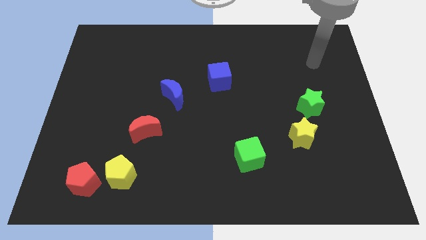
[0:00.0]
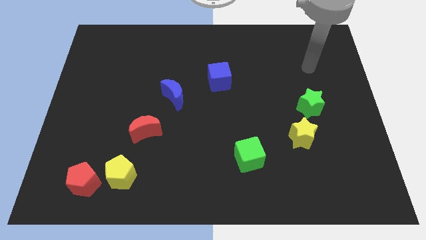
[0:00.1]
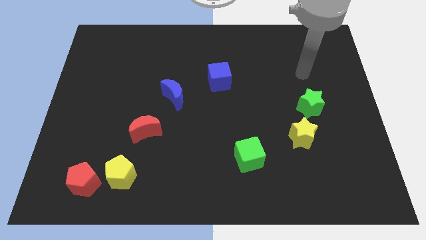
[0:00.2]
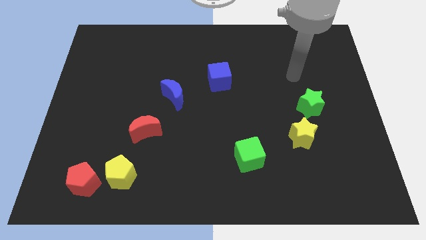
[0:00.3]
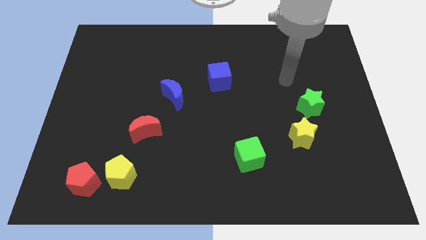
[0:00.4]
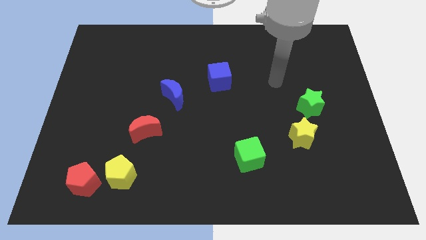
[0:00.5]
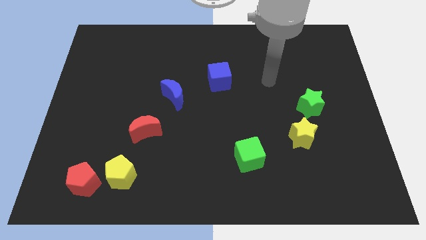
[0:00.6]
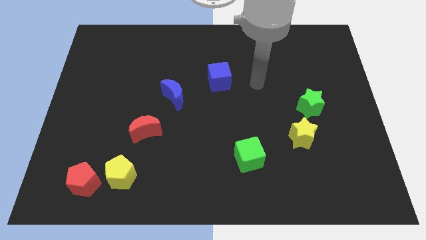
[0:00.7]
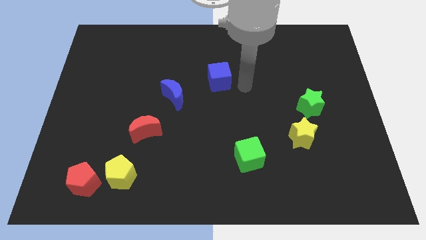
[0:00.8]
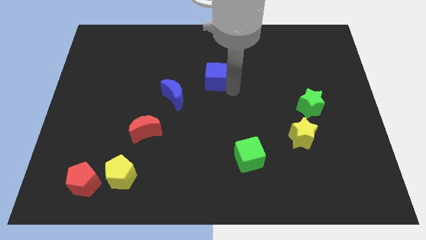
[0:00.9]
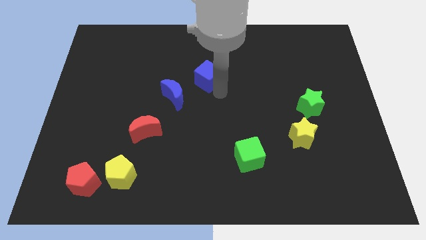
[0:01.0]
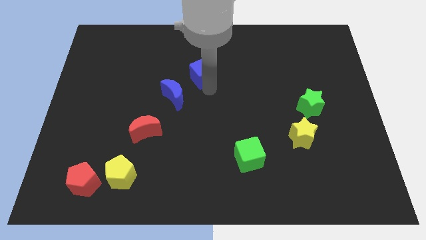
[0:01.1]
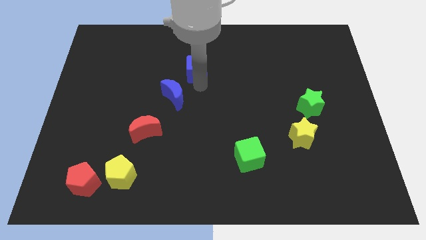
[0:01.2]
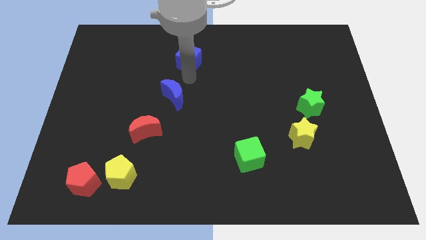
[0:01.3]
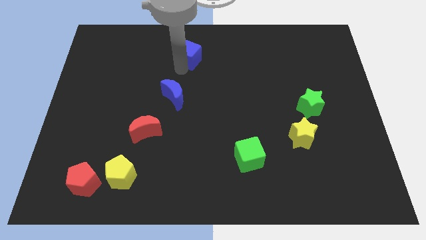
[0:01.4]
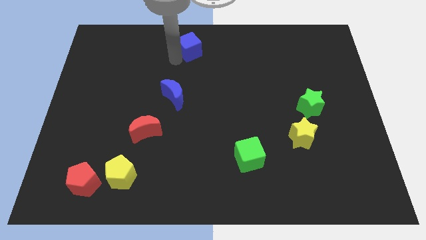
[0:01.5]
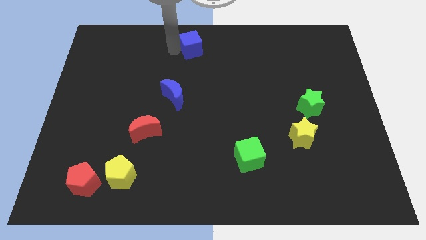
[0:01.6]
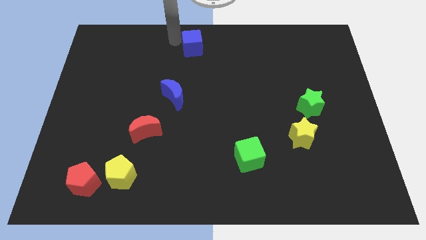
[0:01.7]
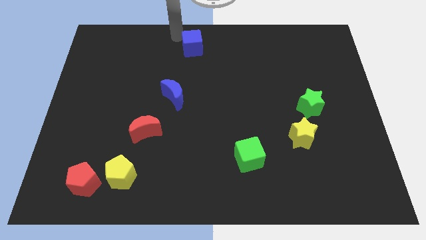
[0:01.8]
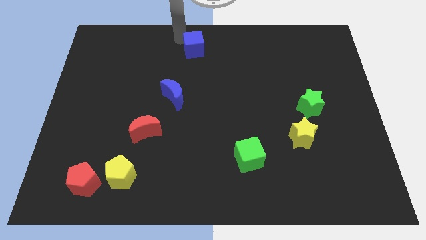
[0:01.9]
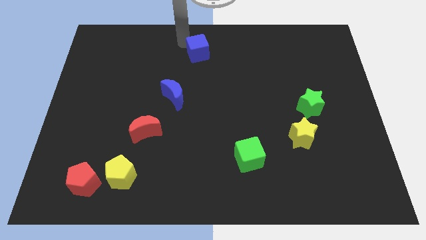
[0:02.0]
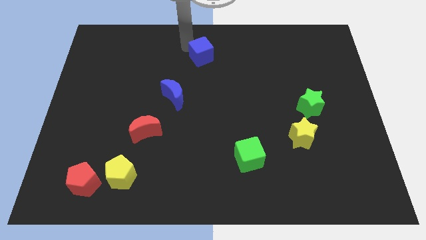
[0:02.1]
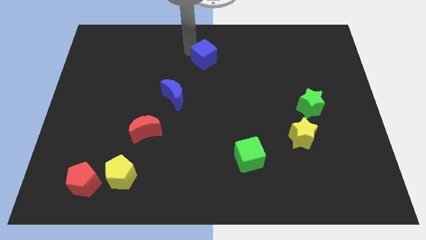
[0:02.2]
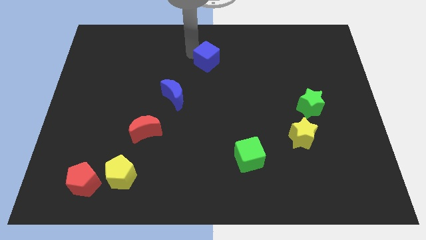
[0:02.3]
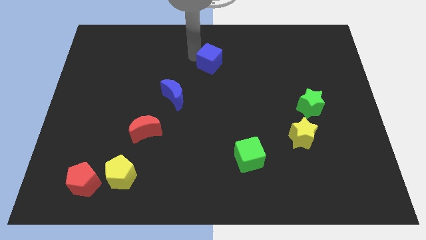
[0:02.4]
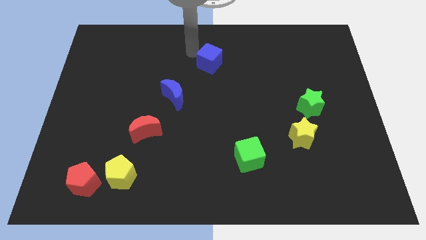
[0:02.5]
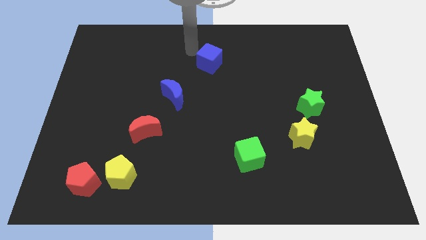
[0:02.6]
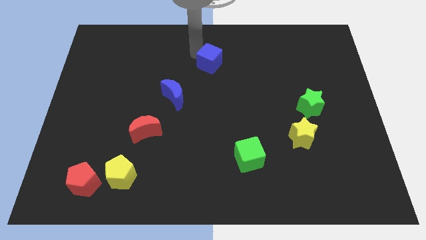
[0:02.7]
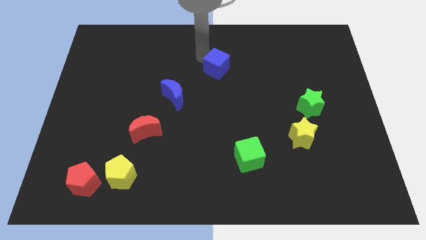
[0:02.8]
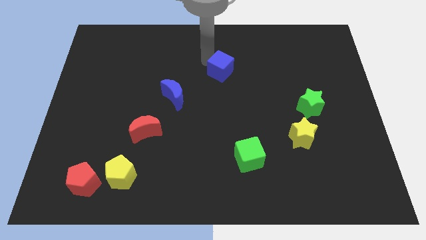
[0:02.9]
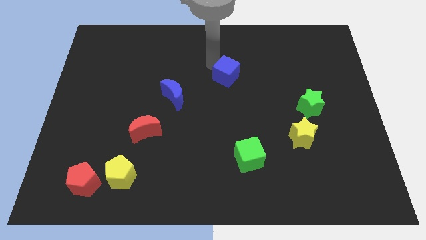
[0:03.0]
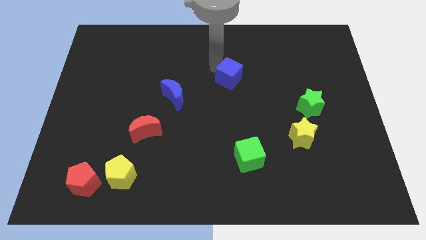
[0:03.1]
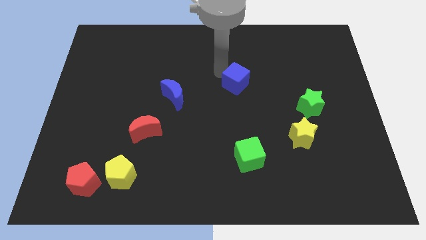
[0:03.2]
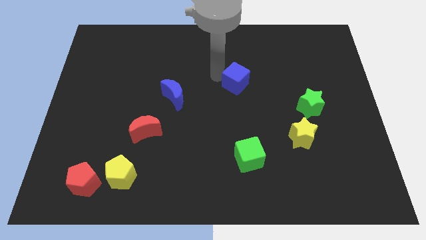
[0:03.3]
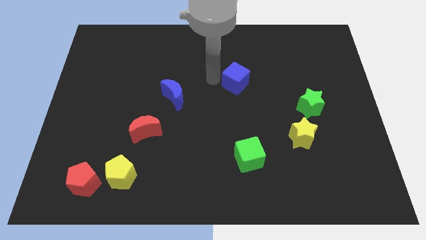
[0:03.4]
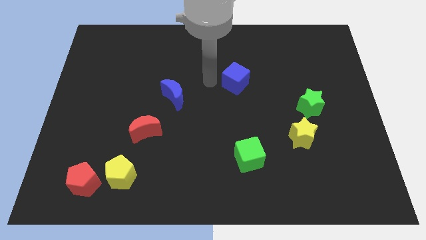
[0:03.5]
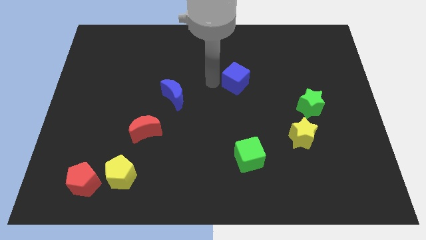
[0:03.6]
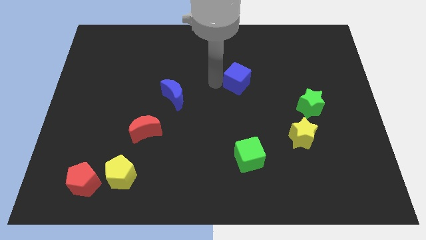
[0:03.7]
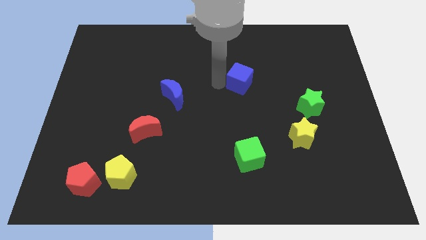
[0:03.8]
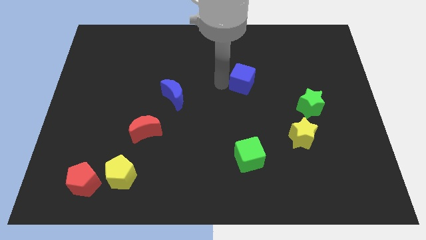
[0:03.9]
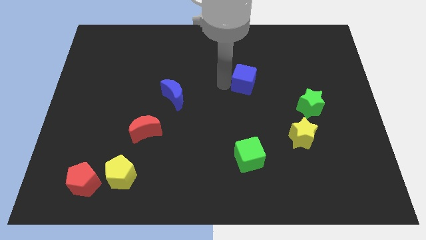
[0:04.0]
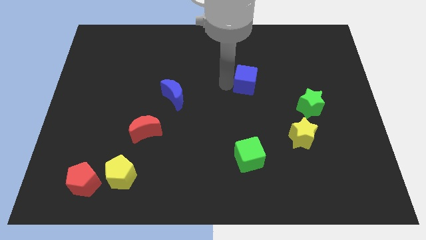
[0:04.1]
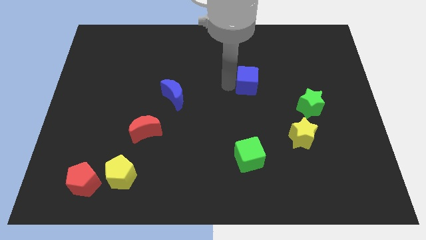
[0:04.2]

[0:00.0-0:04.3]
slightly push the blue cube right

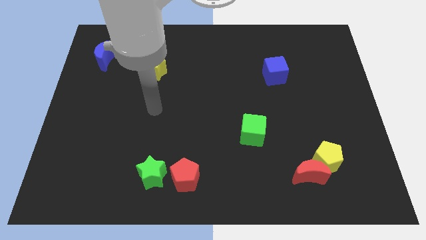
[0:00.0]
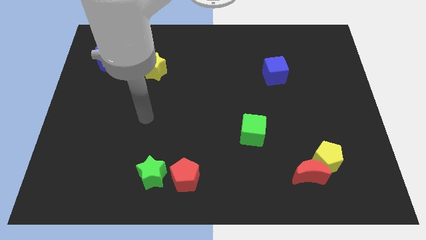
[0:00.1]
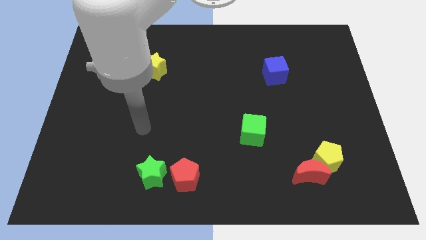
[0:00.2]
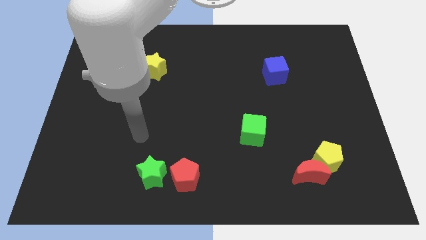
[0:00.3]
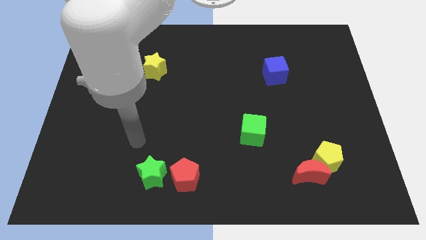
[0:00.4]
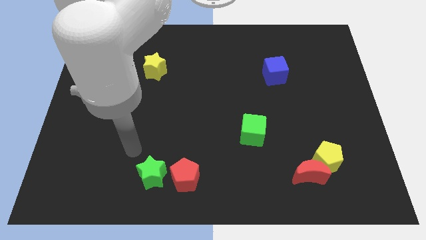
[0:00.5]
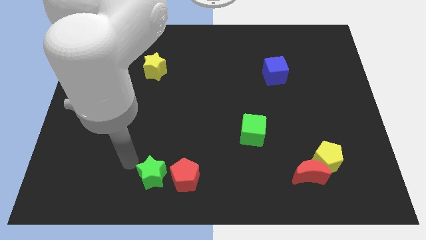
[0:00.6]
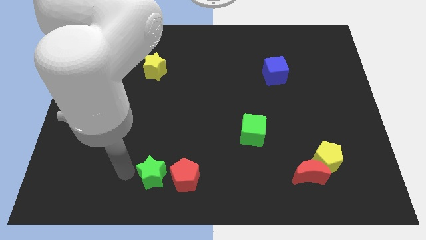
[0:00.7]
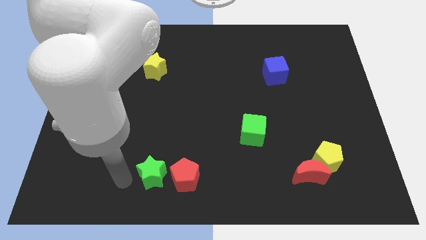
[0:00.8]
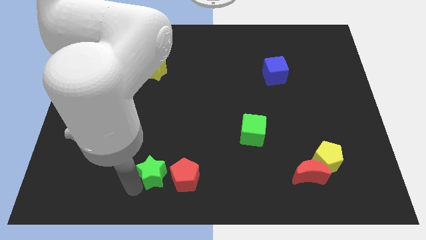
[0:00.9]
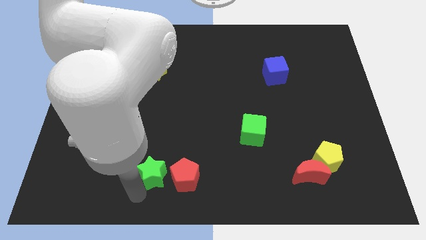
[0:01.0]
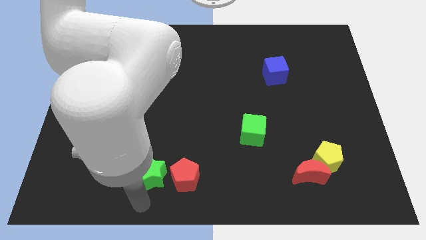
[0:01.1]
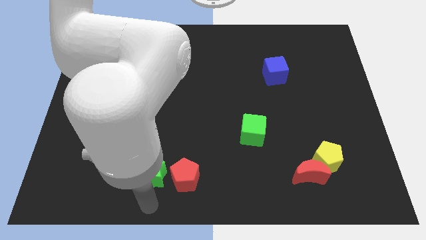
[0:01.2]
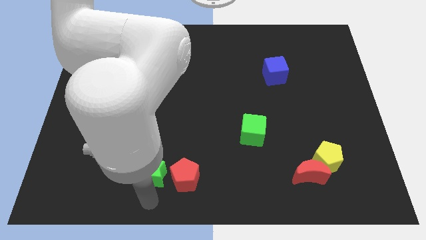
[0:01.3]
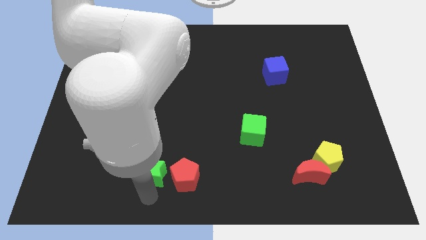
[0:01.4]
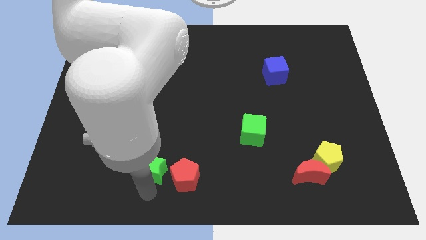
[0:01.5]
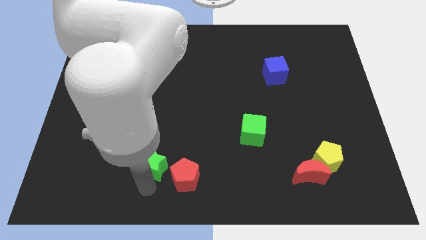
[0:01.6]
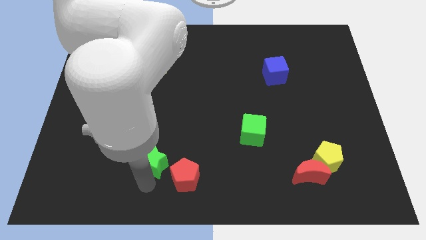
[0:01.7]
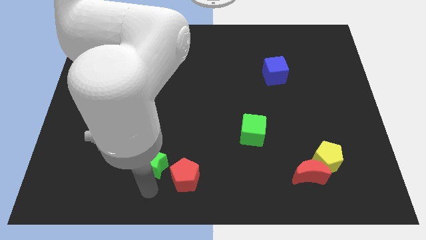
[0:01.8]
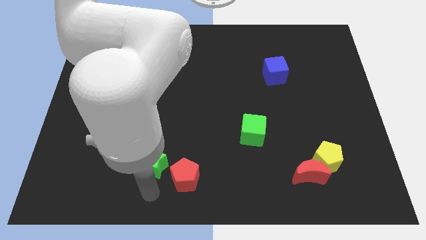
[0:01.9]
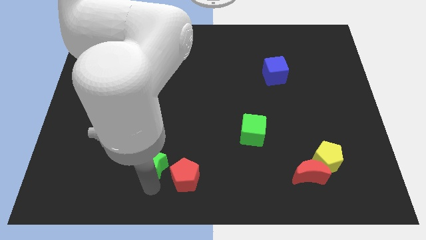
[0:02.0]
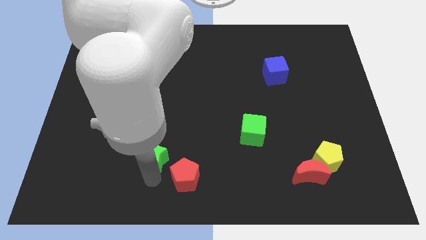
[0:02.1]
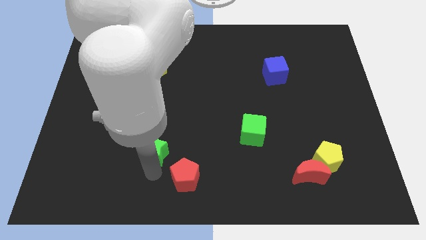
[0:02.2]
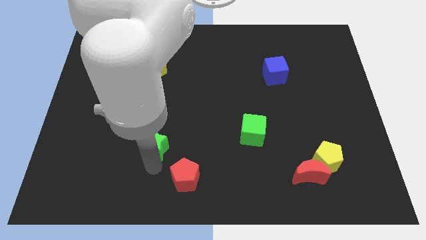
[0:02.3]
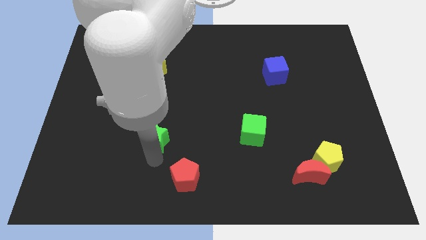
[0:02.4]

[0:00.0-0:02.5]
move the green star a bit upwards

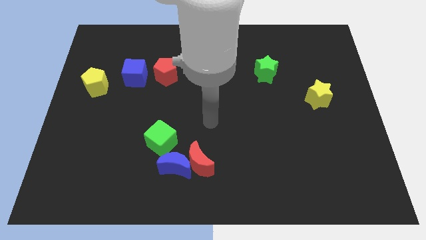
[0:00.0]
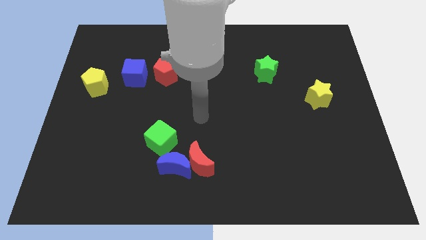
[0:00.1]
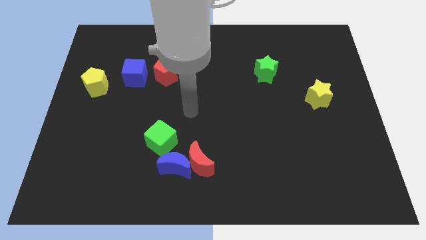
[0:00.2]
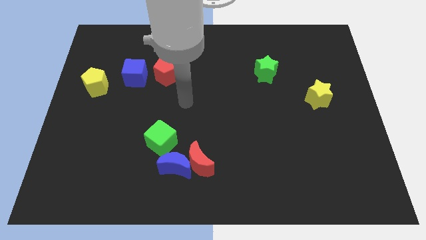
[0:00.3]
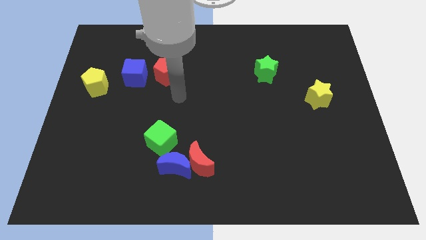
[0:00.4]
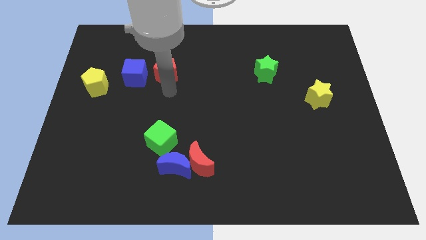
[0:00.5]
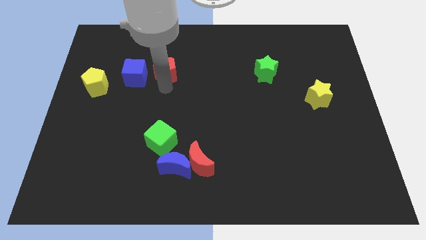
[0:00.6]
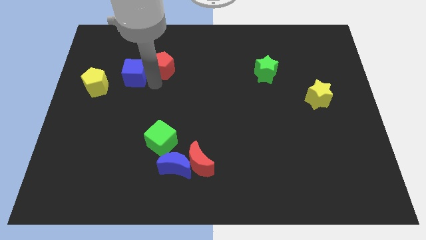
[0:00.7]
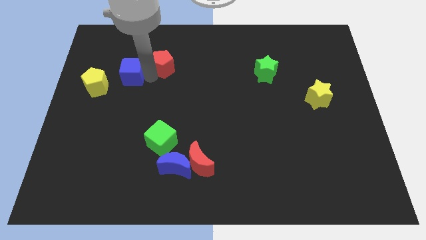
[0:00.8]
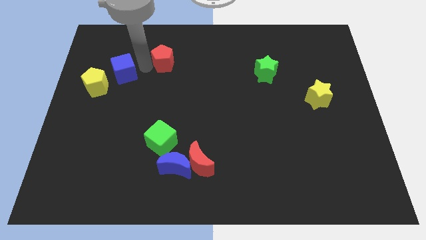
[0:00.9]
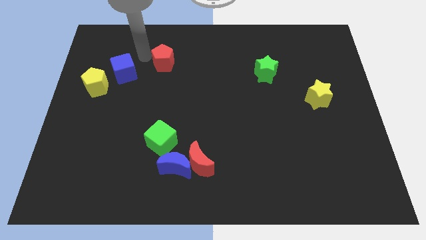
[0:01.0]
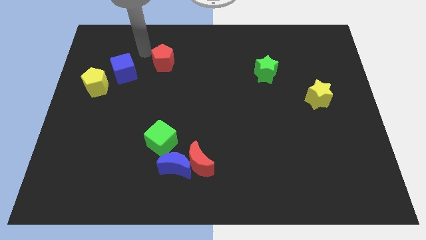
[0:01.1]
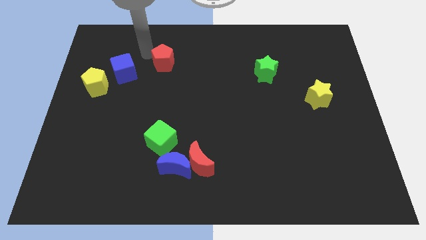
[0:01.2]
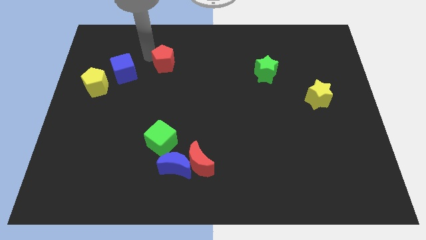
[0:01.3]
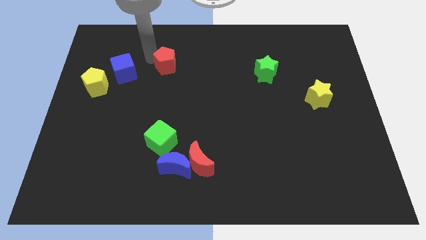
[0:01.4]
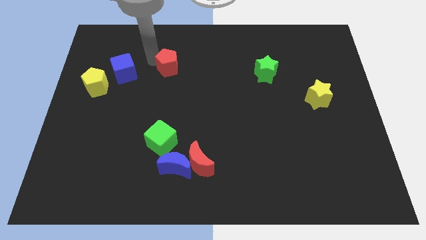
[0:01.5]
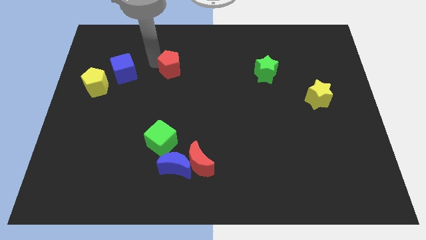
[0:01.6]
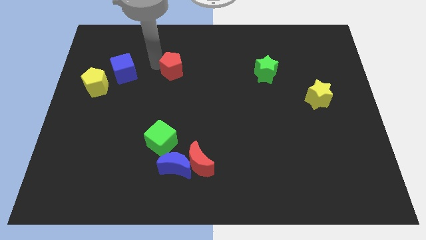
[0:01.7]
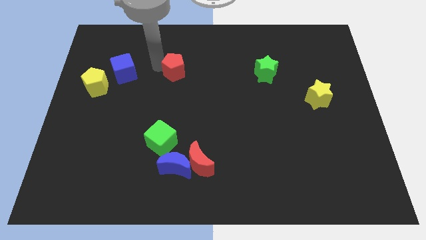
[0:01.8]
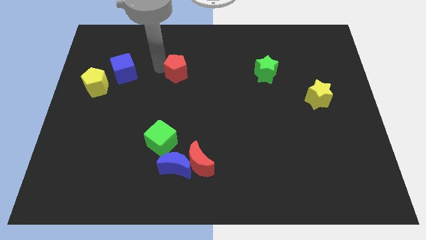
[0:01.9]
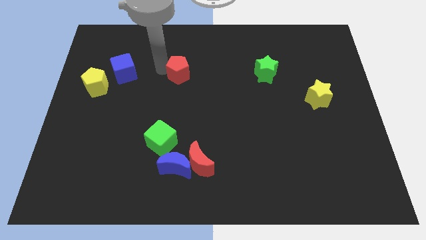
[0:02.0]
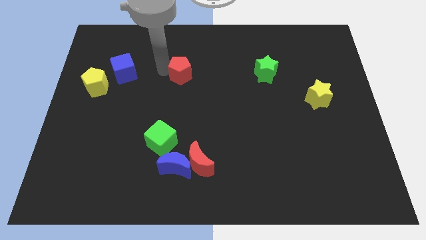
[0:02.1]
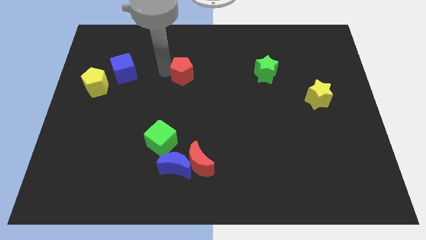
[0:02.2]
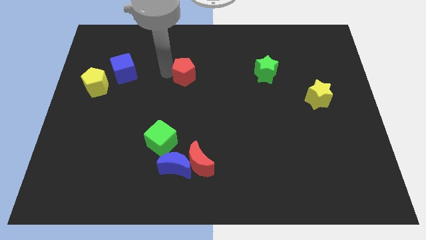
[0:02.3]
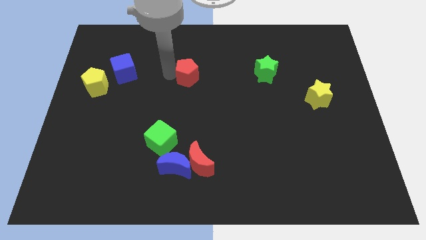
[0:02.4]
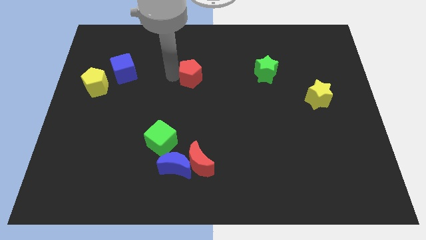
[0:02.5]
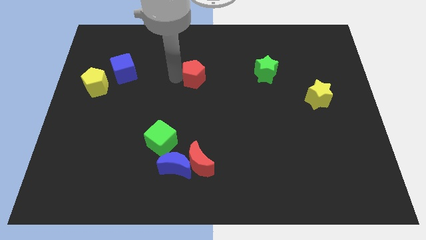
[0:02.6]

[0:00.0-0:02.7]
push the red pentagon to the right a little
